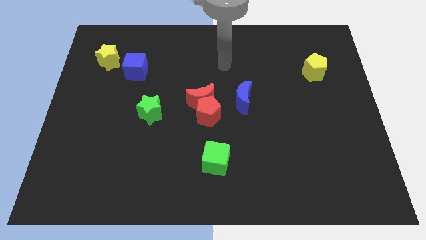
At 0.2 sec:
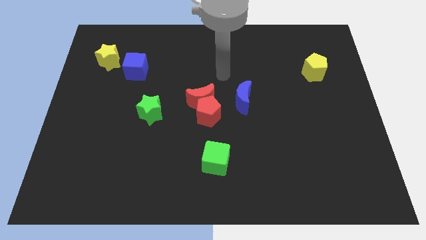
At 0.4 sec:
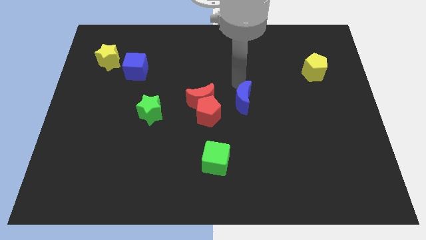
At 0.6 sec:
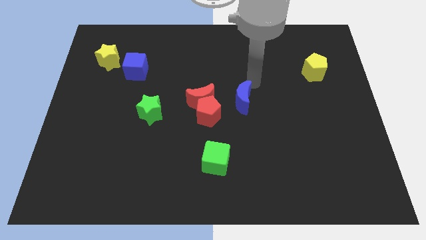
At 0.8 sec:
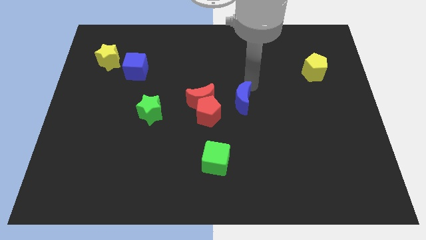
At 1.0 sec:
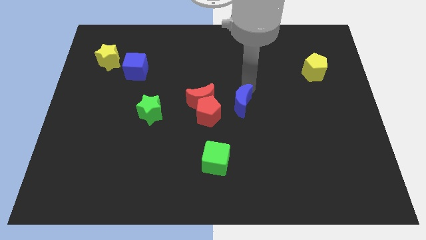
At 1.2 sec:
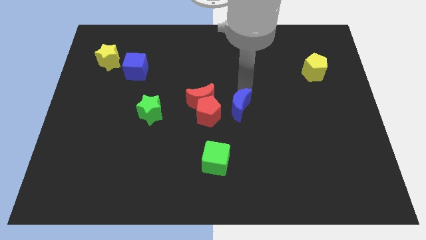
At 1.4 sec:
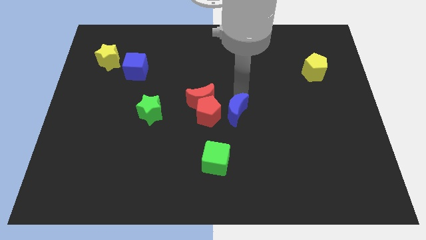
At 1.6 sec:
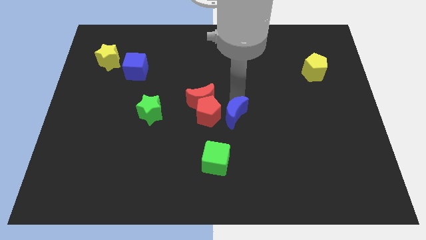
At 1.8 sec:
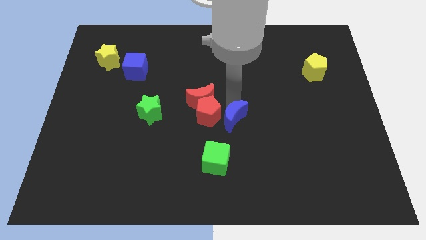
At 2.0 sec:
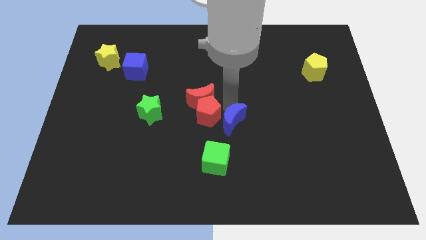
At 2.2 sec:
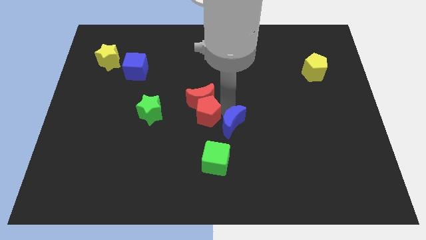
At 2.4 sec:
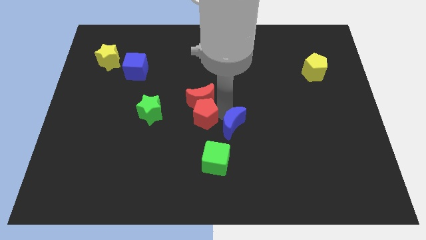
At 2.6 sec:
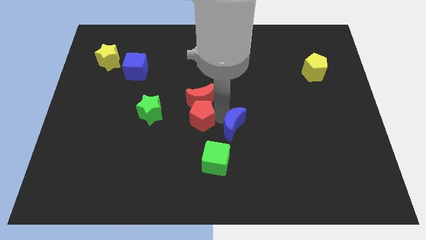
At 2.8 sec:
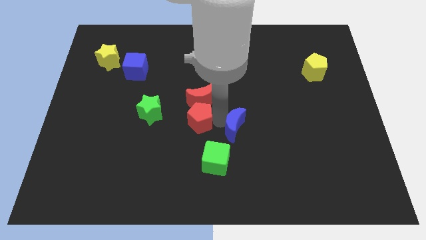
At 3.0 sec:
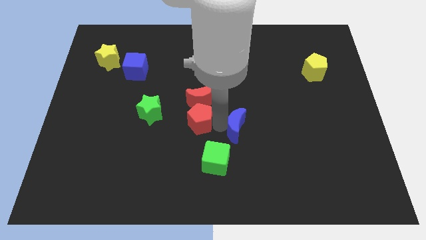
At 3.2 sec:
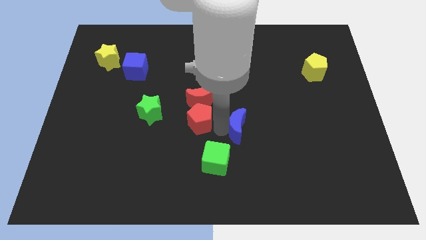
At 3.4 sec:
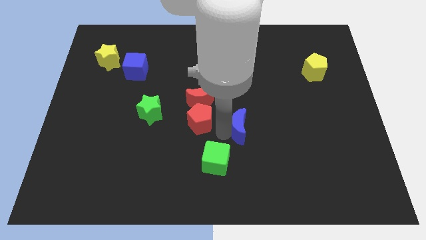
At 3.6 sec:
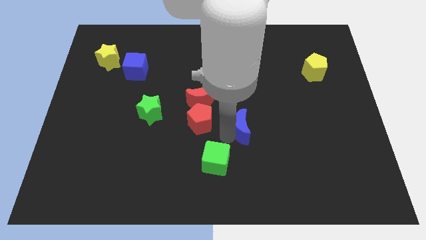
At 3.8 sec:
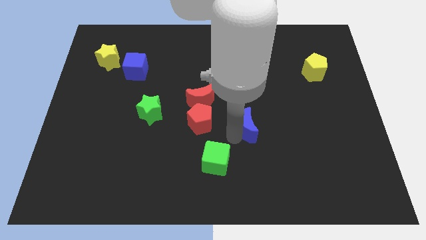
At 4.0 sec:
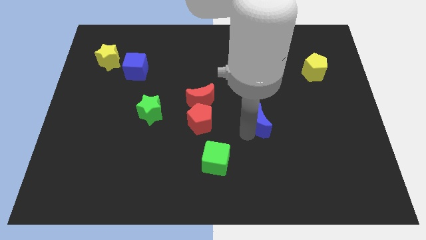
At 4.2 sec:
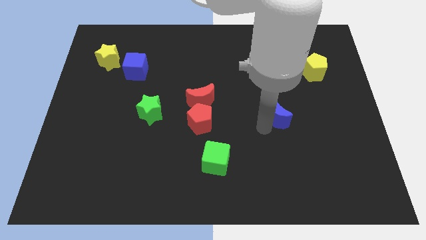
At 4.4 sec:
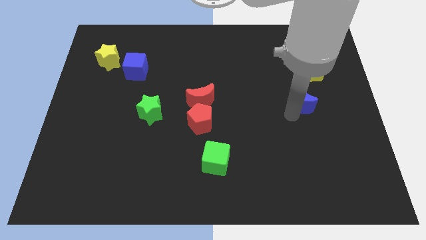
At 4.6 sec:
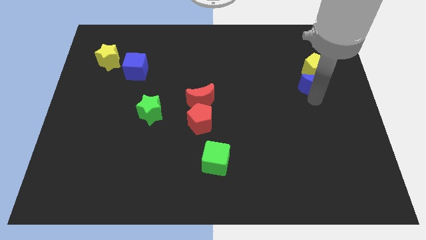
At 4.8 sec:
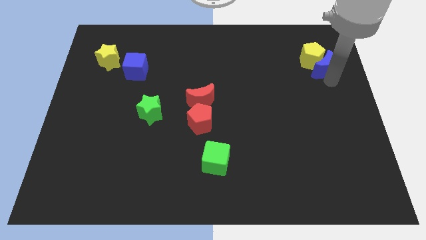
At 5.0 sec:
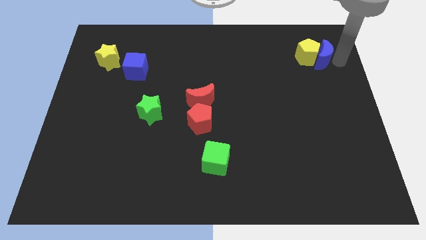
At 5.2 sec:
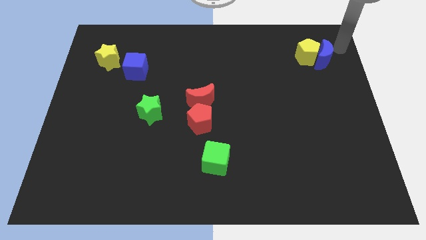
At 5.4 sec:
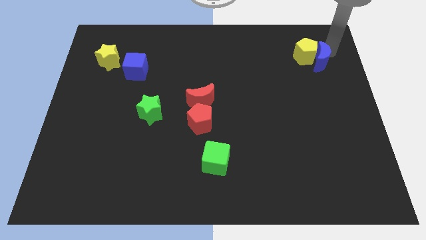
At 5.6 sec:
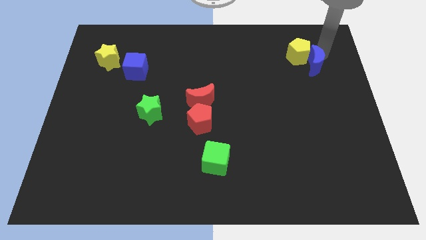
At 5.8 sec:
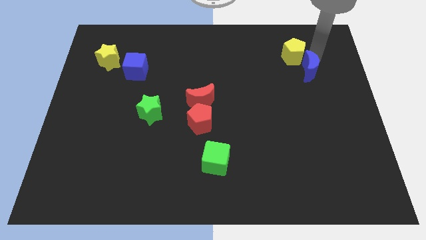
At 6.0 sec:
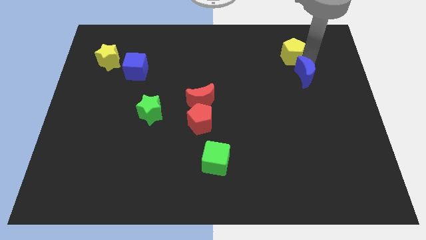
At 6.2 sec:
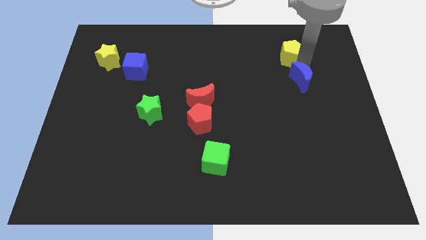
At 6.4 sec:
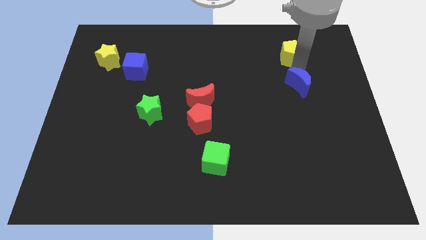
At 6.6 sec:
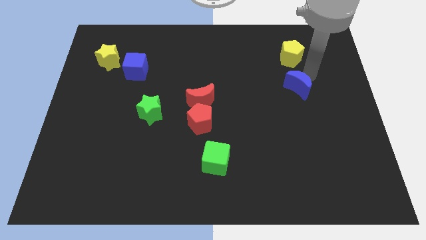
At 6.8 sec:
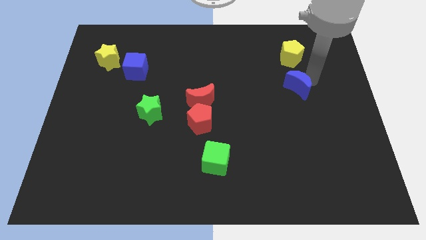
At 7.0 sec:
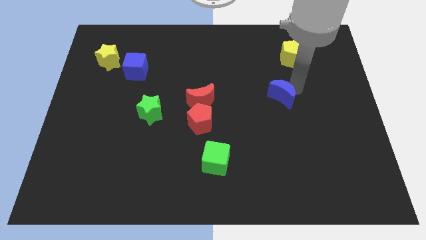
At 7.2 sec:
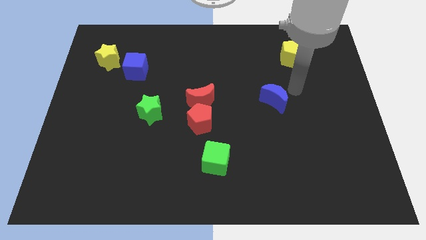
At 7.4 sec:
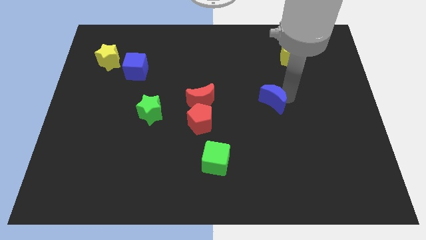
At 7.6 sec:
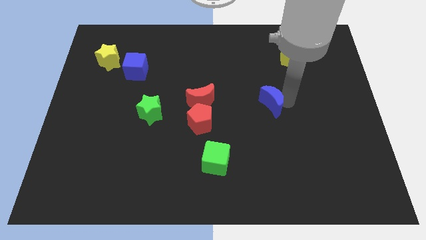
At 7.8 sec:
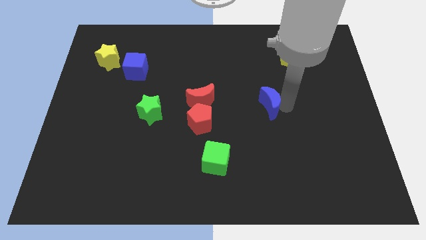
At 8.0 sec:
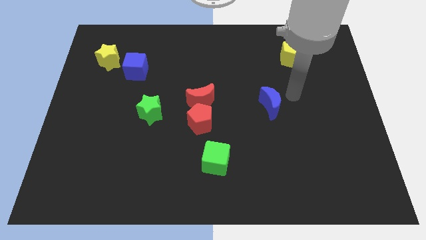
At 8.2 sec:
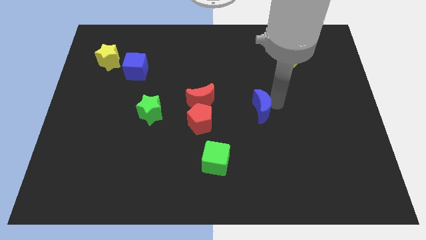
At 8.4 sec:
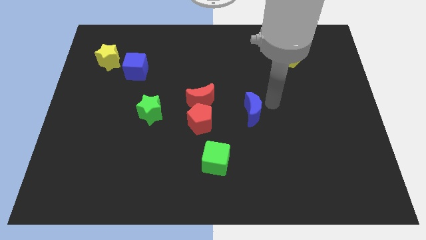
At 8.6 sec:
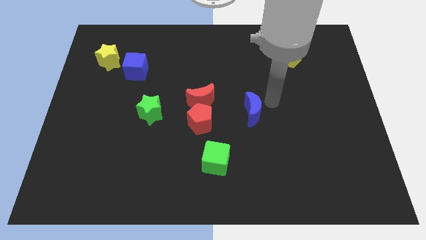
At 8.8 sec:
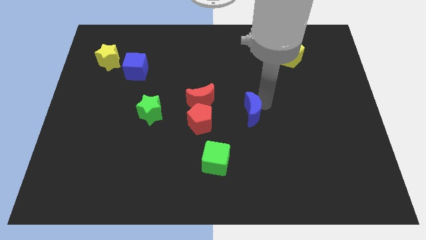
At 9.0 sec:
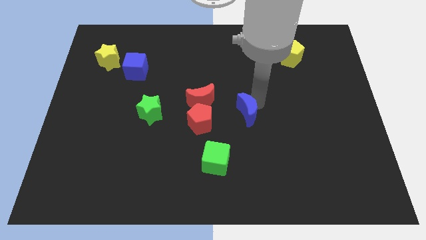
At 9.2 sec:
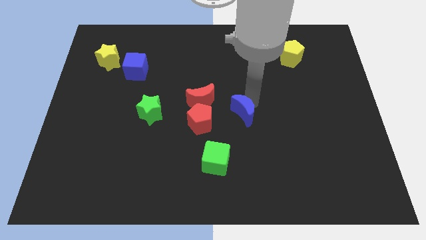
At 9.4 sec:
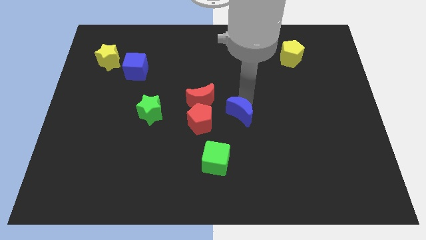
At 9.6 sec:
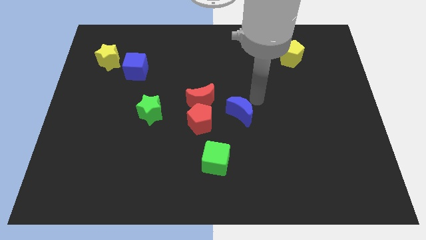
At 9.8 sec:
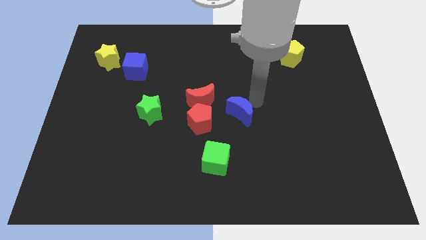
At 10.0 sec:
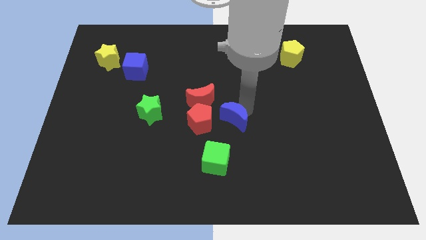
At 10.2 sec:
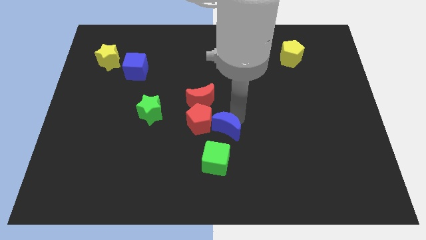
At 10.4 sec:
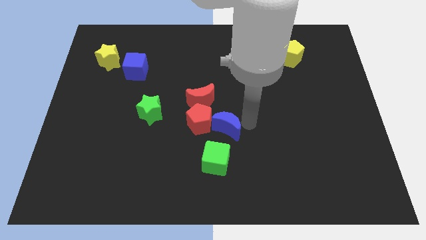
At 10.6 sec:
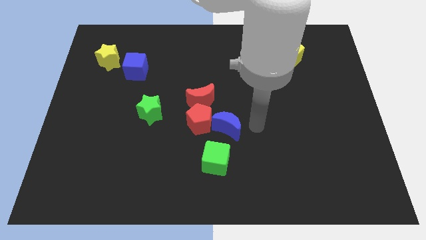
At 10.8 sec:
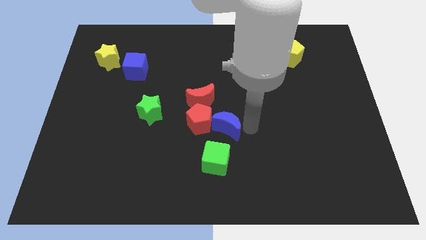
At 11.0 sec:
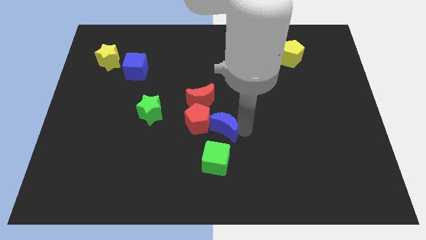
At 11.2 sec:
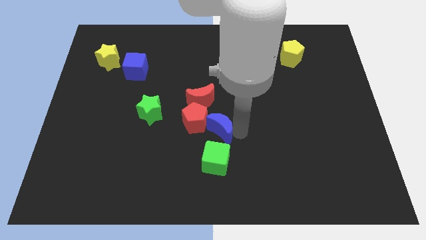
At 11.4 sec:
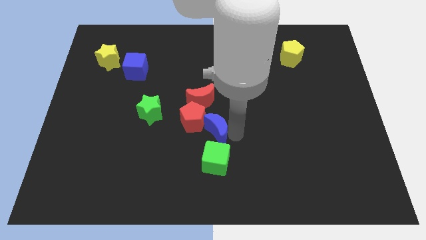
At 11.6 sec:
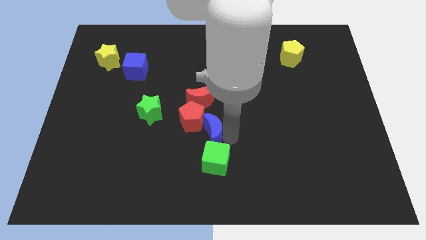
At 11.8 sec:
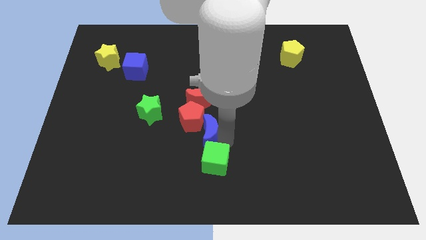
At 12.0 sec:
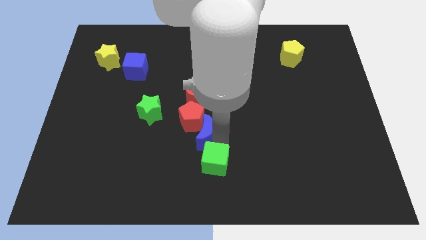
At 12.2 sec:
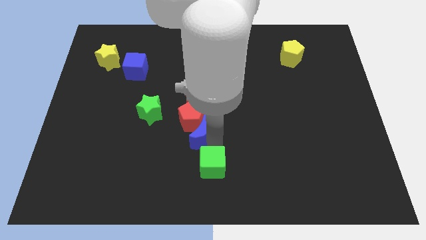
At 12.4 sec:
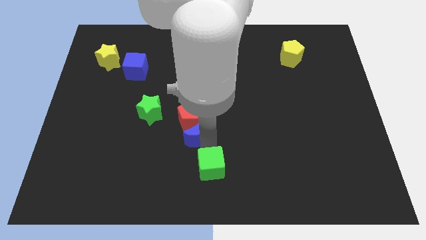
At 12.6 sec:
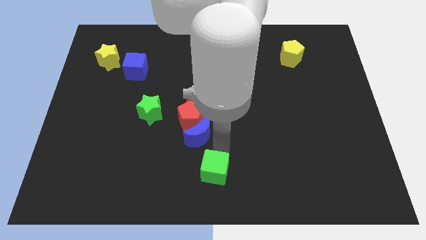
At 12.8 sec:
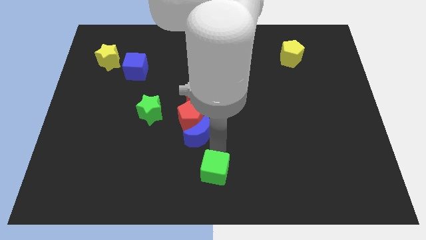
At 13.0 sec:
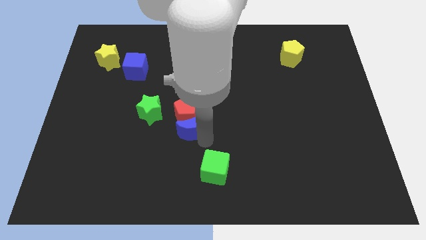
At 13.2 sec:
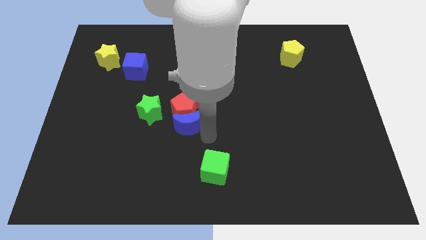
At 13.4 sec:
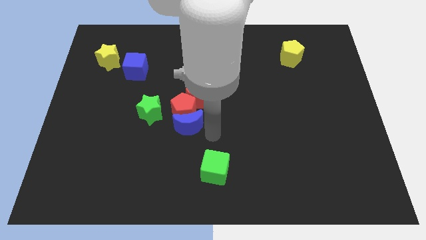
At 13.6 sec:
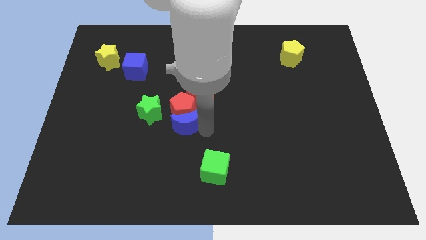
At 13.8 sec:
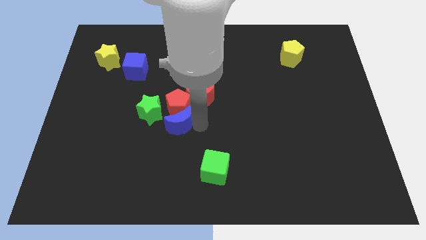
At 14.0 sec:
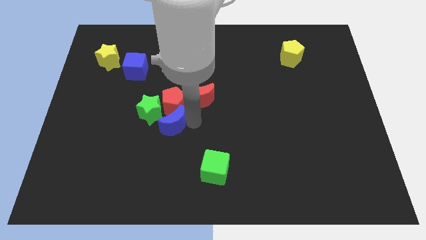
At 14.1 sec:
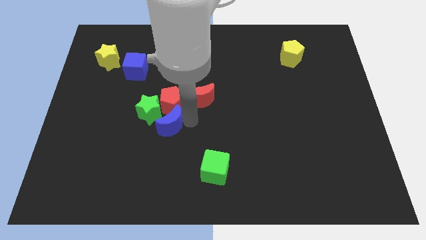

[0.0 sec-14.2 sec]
move the blue moon to the green star
